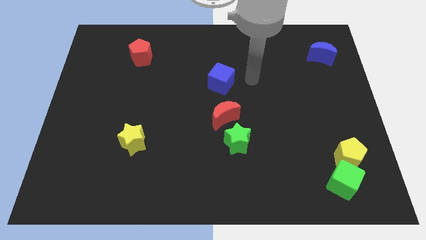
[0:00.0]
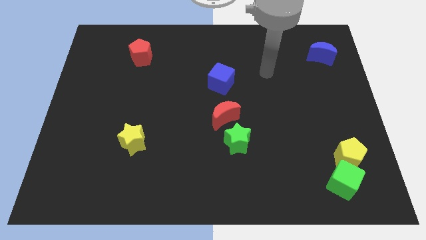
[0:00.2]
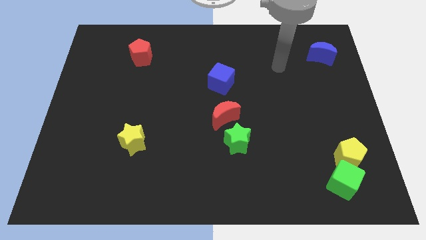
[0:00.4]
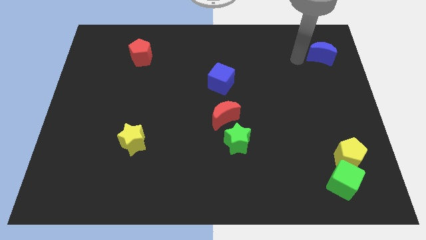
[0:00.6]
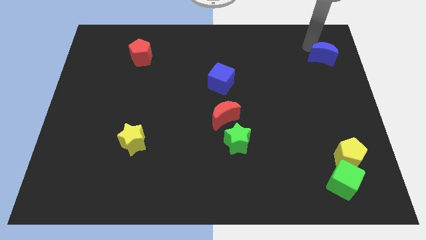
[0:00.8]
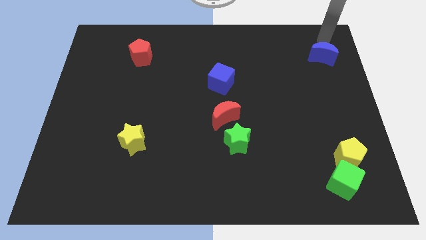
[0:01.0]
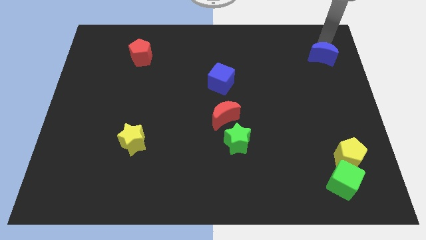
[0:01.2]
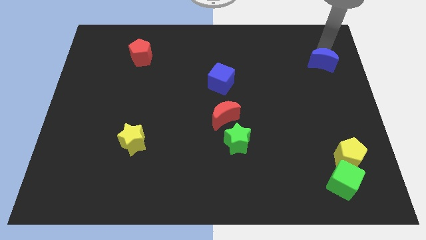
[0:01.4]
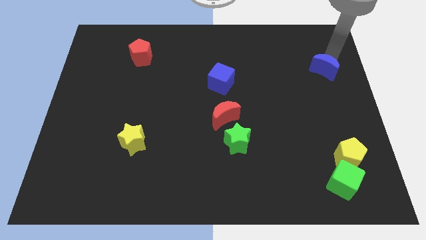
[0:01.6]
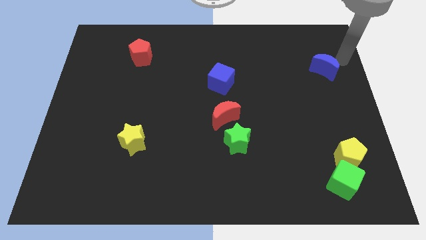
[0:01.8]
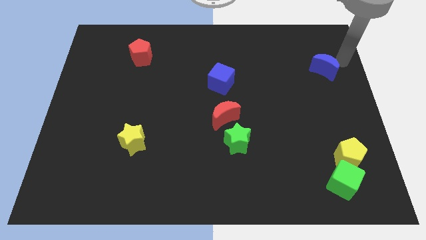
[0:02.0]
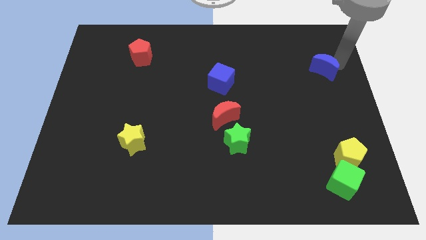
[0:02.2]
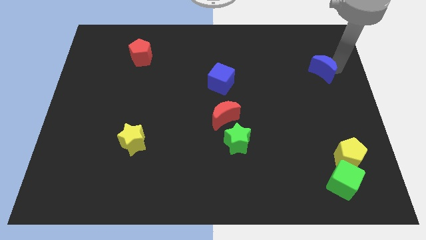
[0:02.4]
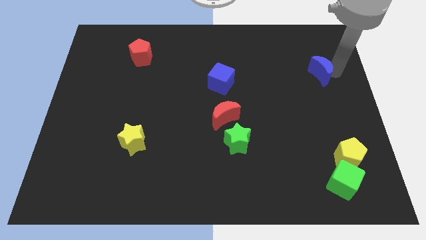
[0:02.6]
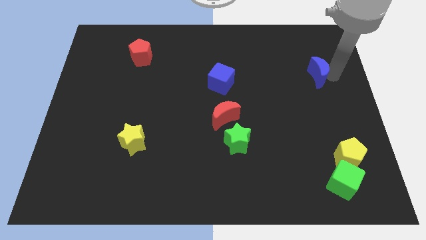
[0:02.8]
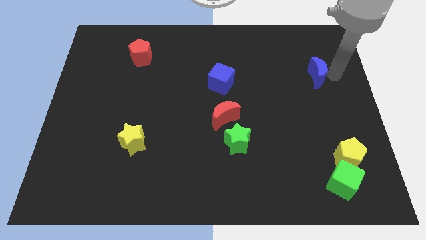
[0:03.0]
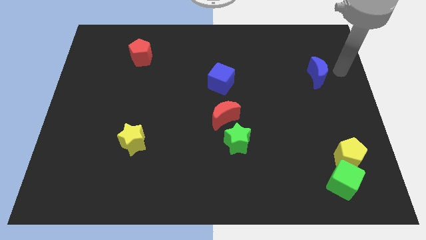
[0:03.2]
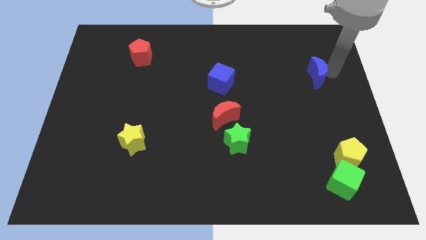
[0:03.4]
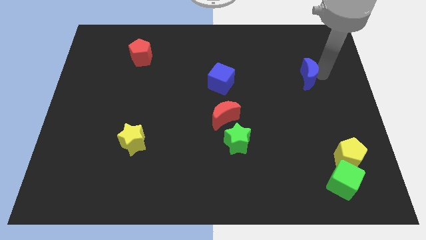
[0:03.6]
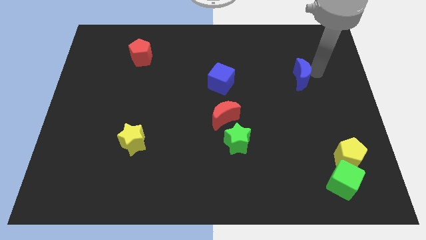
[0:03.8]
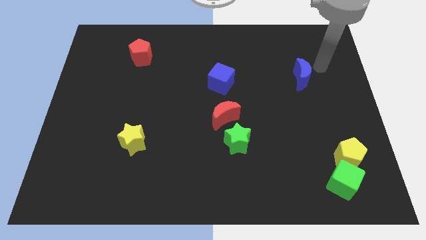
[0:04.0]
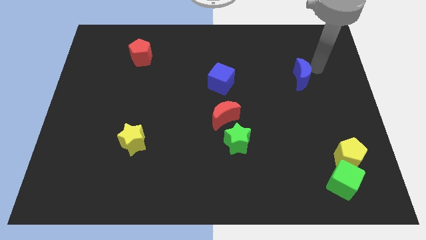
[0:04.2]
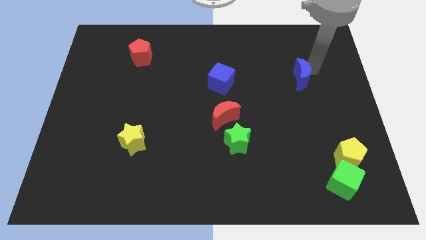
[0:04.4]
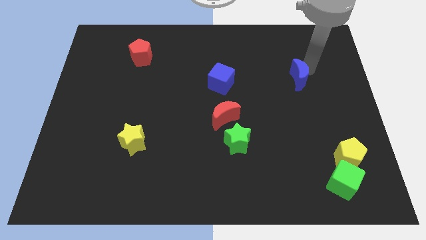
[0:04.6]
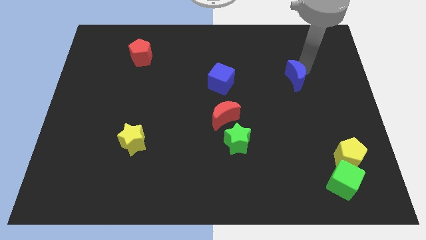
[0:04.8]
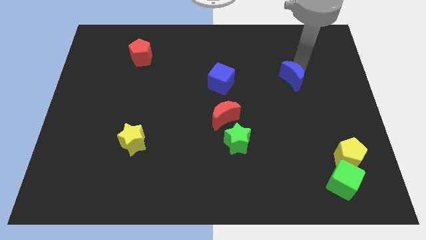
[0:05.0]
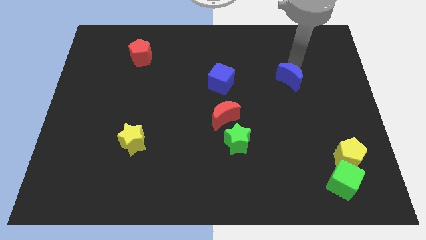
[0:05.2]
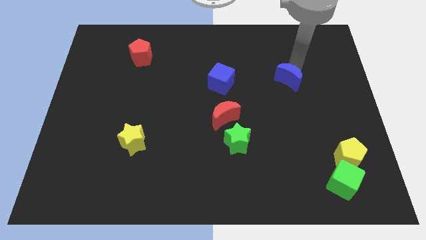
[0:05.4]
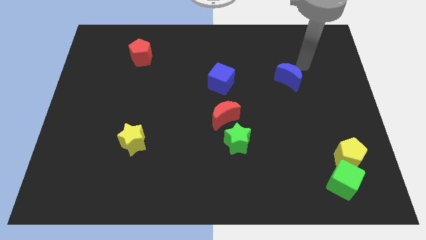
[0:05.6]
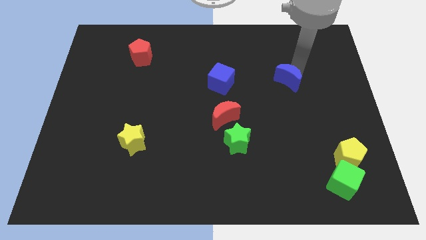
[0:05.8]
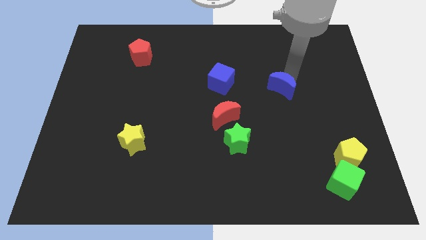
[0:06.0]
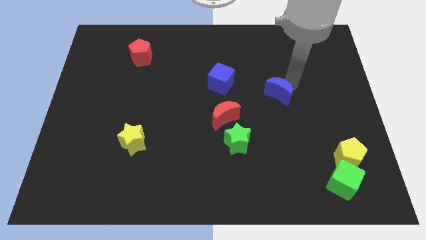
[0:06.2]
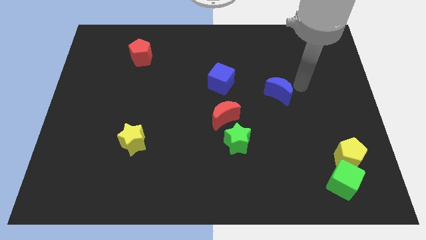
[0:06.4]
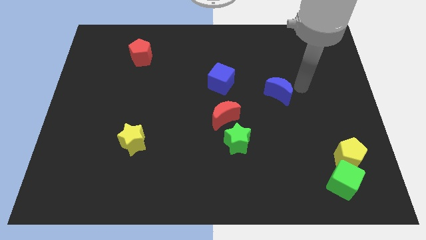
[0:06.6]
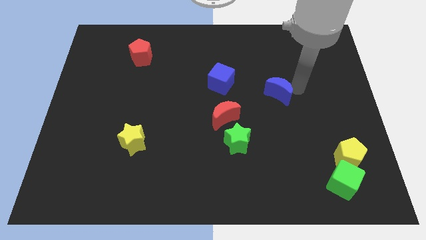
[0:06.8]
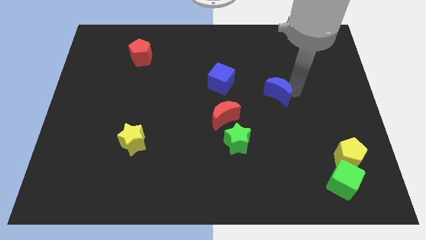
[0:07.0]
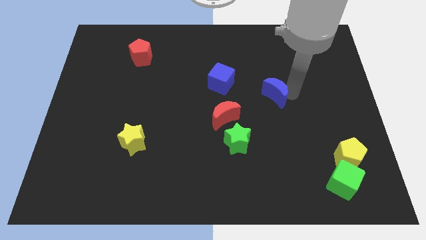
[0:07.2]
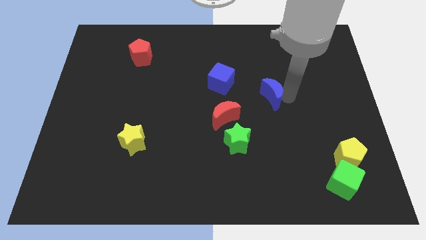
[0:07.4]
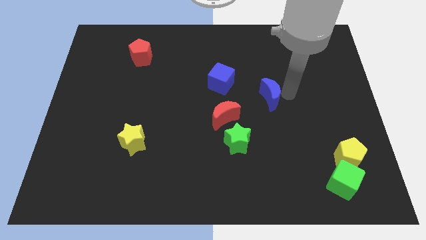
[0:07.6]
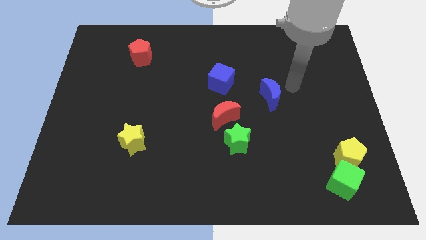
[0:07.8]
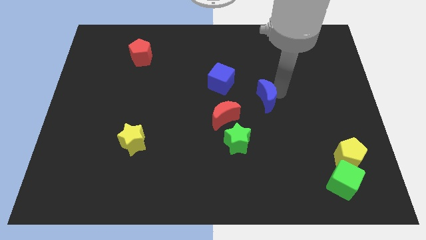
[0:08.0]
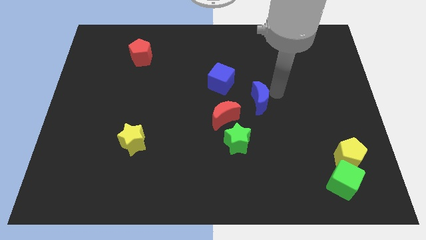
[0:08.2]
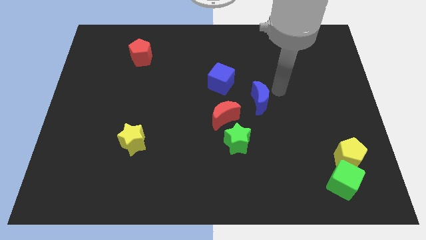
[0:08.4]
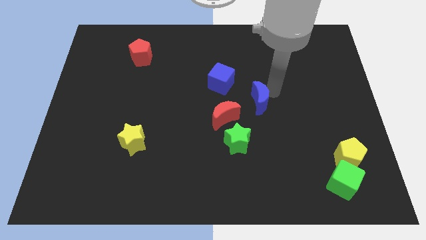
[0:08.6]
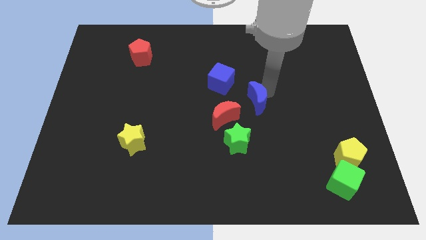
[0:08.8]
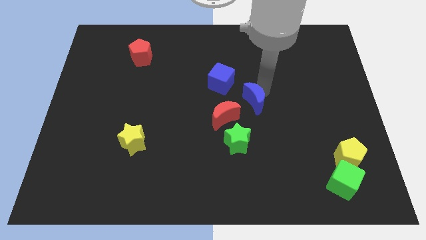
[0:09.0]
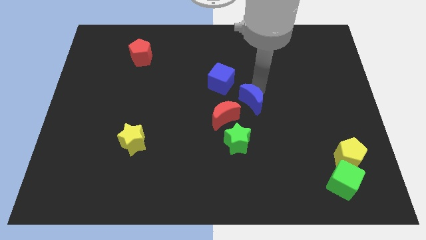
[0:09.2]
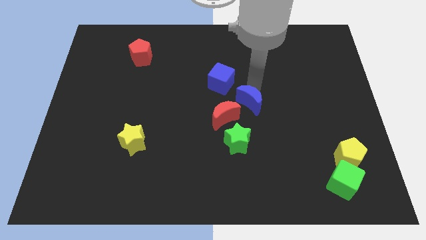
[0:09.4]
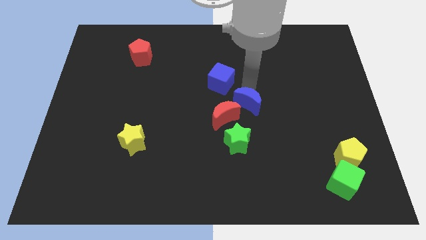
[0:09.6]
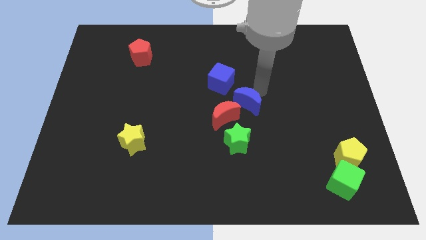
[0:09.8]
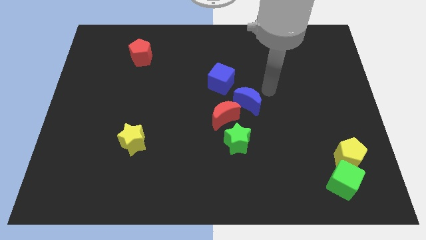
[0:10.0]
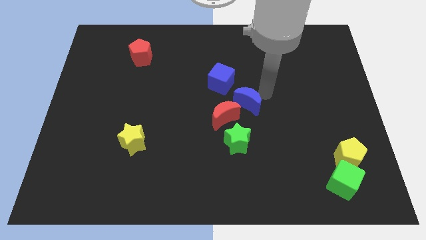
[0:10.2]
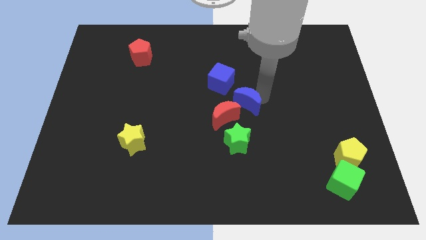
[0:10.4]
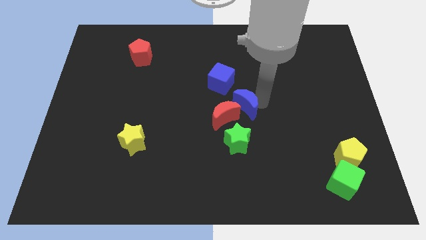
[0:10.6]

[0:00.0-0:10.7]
push the blue moon towards the red moon
